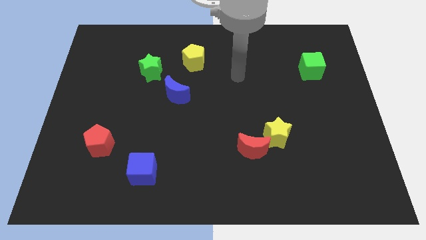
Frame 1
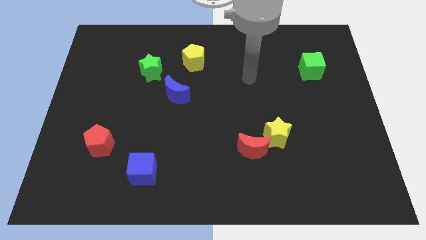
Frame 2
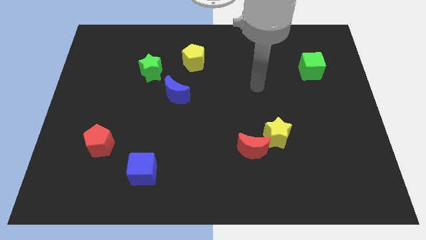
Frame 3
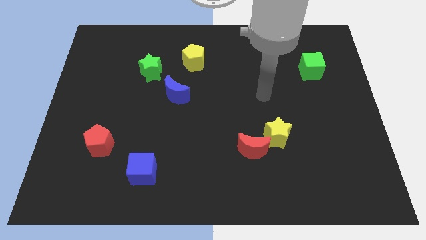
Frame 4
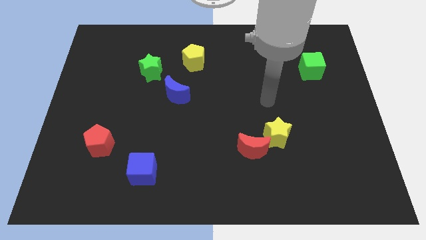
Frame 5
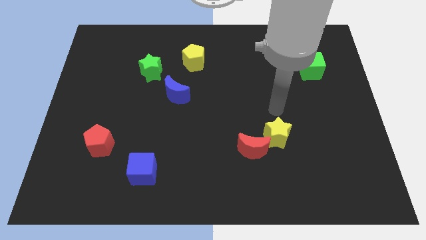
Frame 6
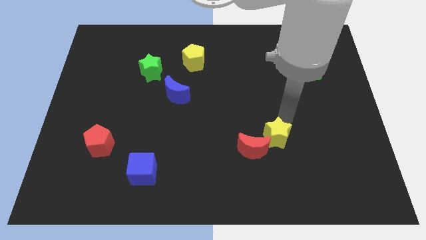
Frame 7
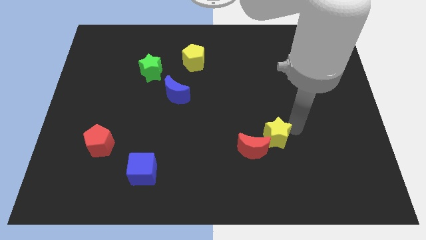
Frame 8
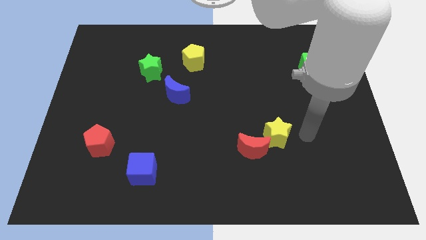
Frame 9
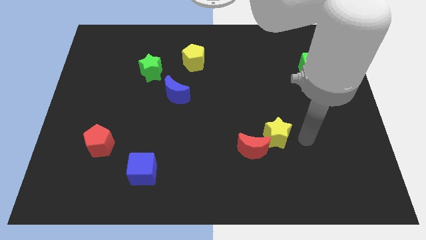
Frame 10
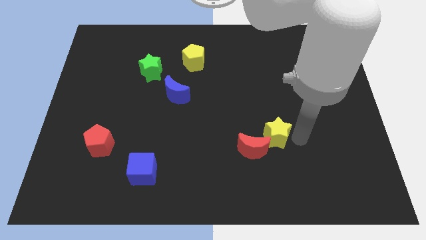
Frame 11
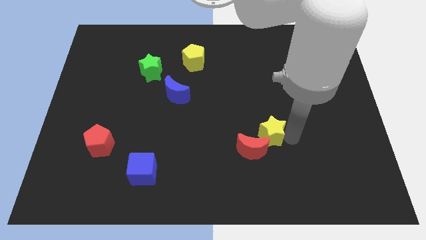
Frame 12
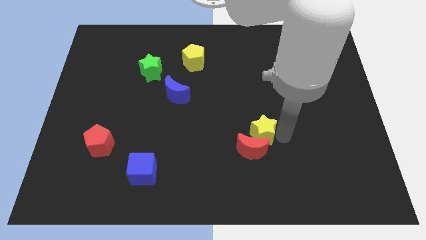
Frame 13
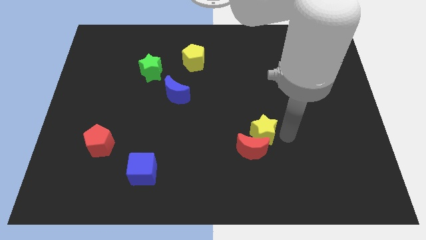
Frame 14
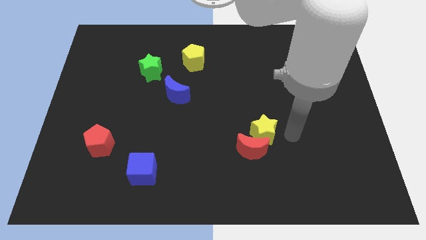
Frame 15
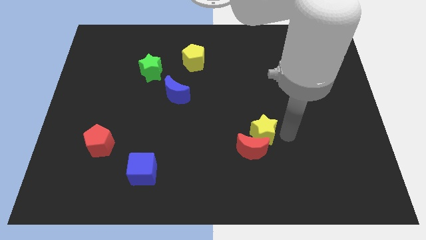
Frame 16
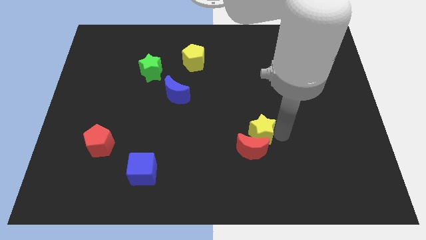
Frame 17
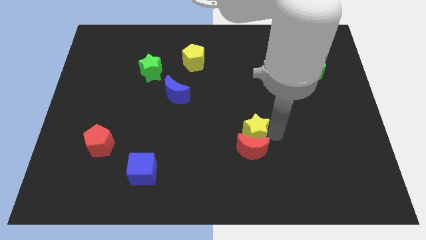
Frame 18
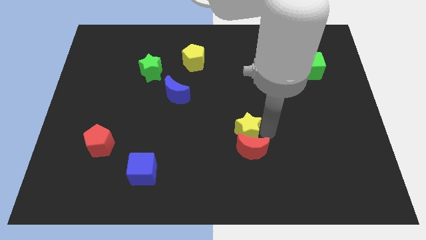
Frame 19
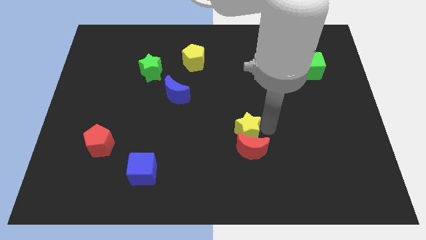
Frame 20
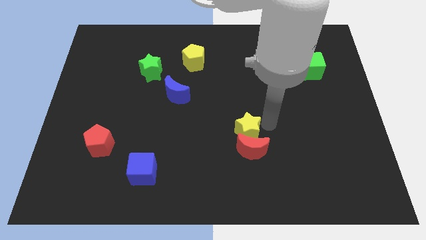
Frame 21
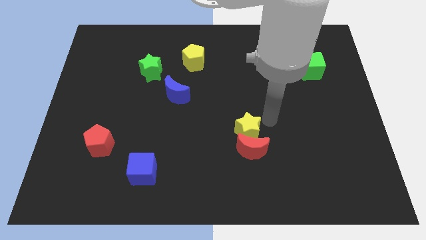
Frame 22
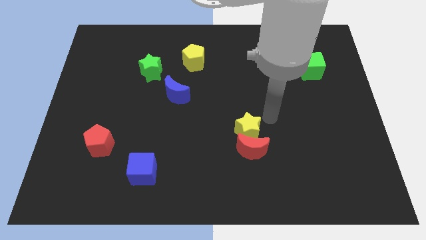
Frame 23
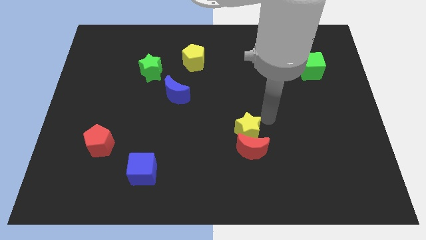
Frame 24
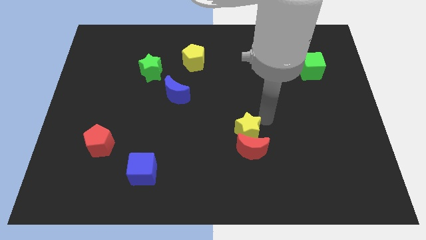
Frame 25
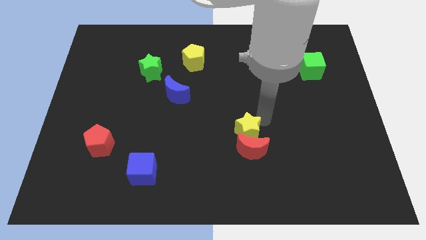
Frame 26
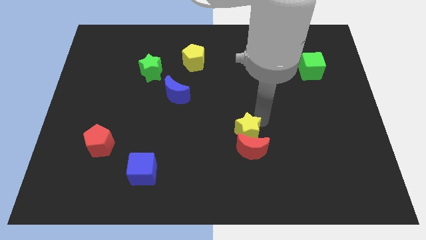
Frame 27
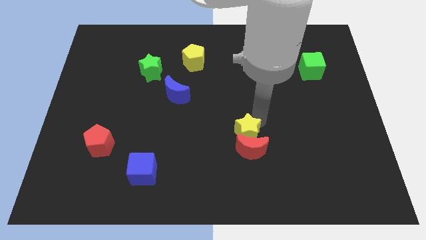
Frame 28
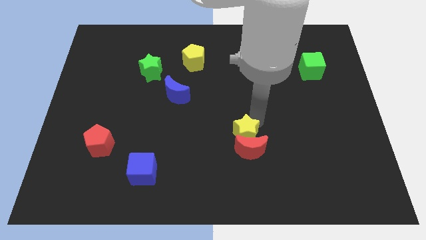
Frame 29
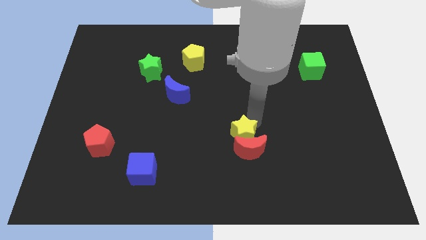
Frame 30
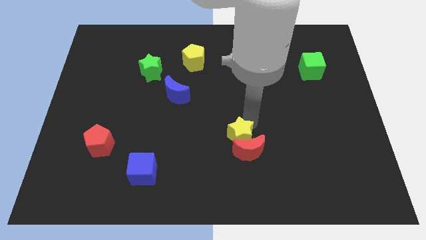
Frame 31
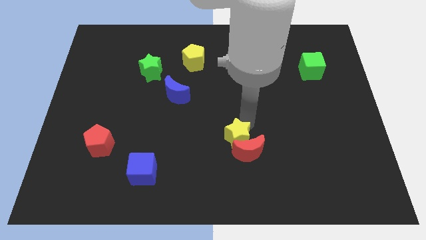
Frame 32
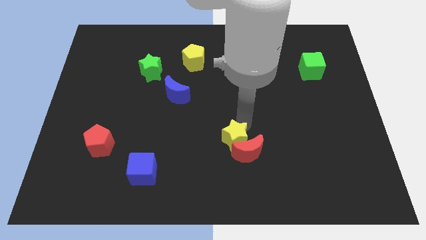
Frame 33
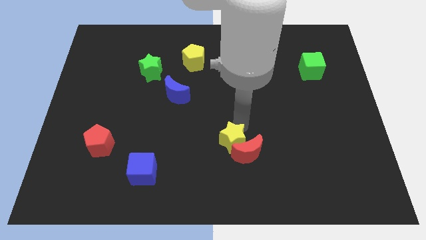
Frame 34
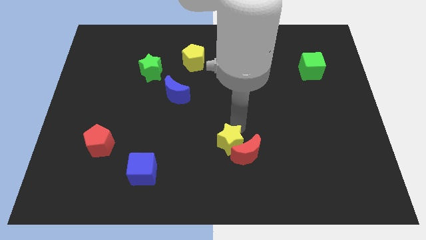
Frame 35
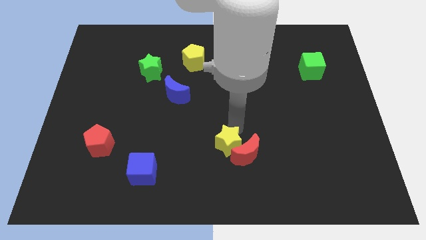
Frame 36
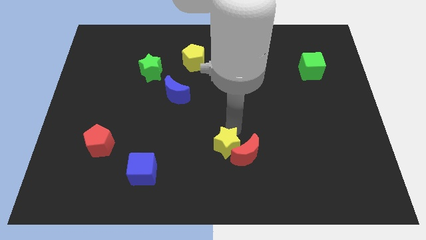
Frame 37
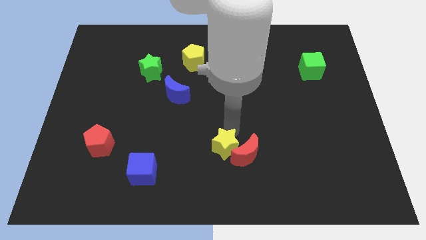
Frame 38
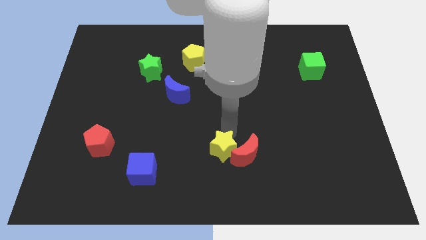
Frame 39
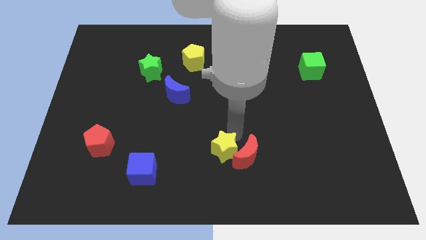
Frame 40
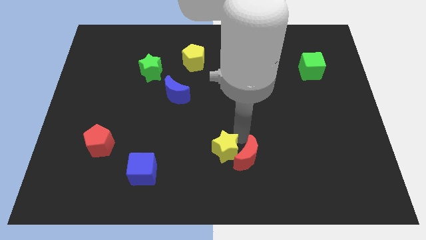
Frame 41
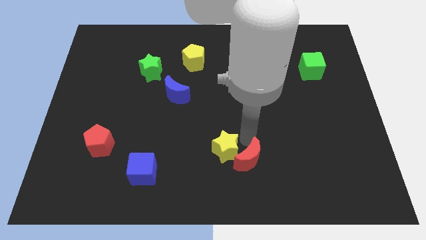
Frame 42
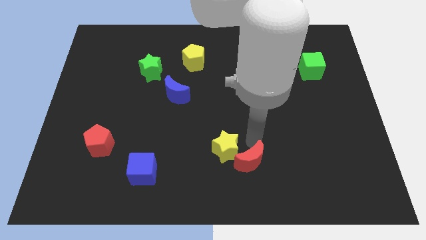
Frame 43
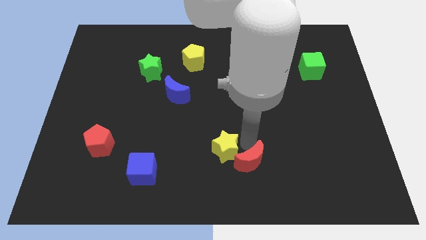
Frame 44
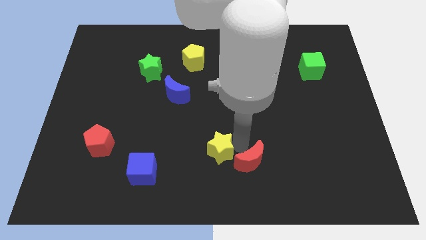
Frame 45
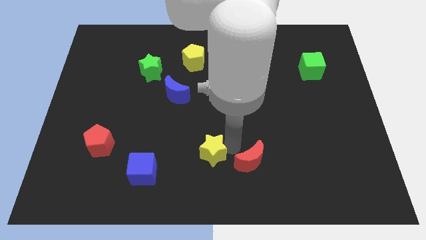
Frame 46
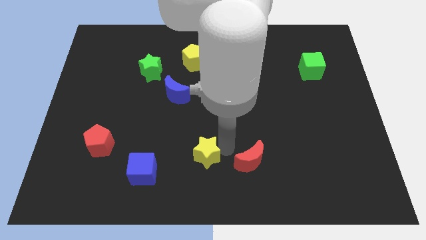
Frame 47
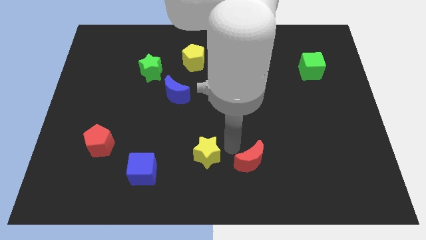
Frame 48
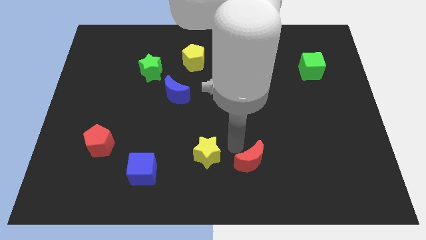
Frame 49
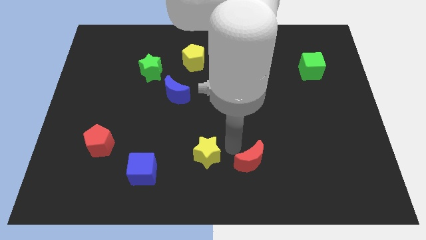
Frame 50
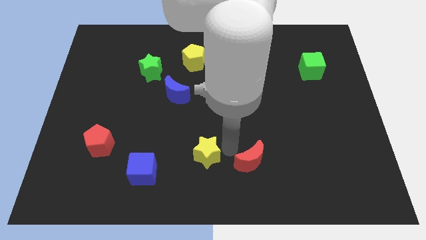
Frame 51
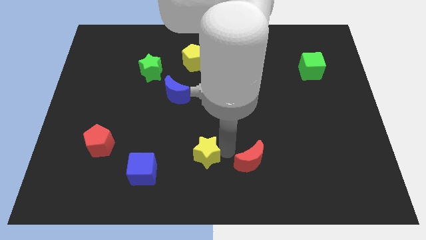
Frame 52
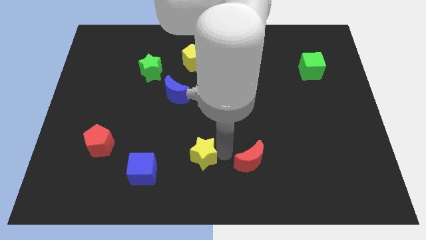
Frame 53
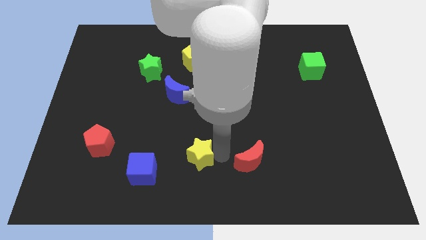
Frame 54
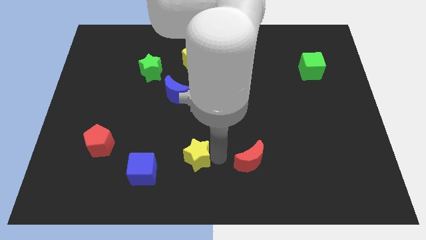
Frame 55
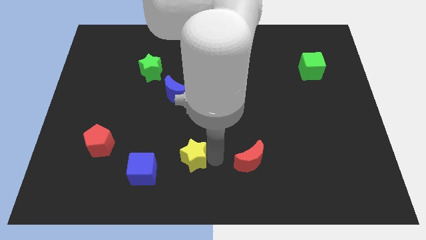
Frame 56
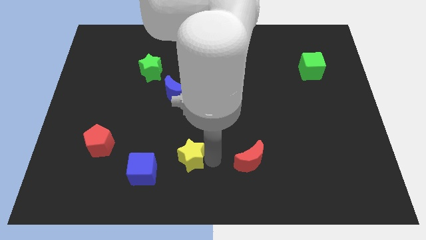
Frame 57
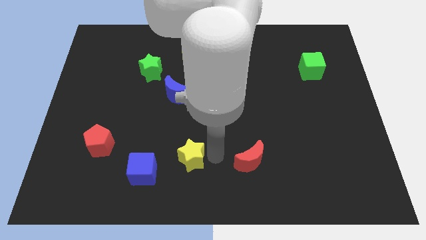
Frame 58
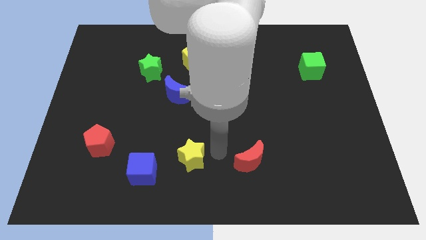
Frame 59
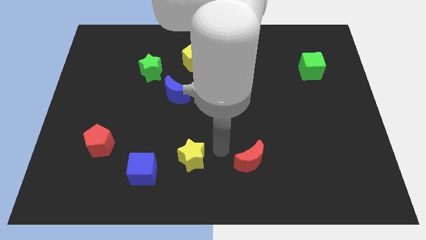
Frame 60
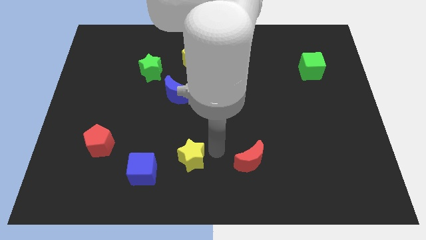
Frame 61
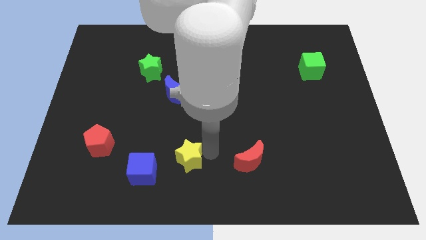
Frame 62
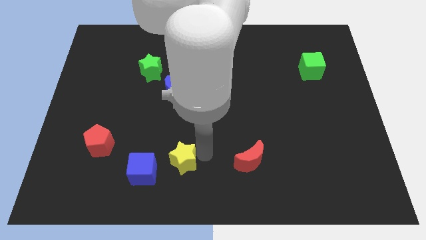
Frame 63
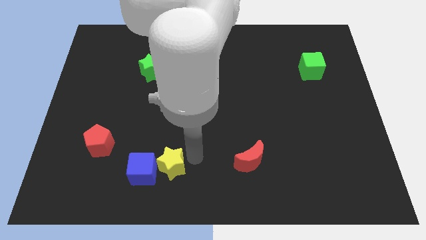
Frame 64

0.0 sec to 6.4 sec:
move the yellow star towards the blue cube

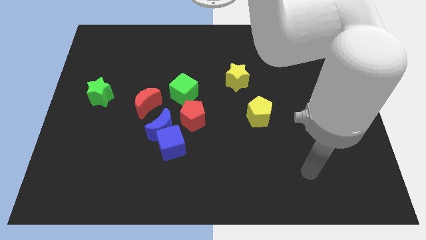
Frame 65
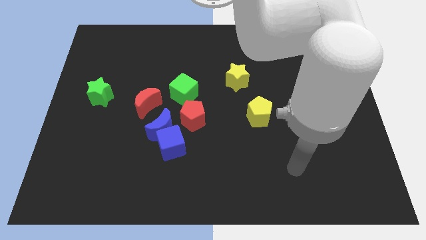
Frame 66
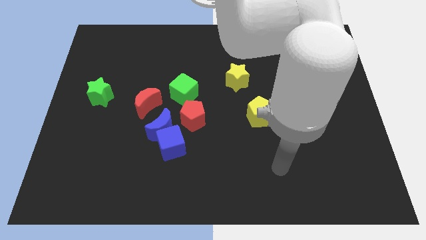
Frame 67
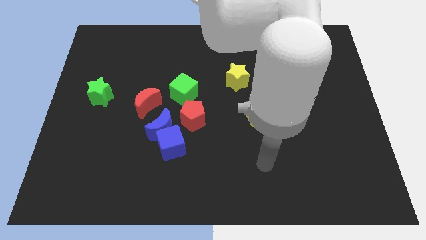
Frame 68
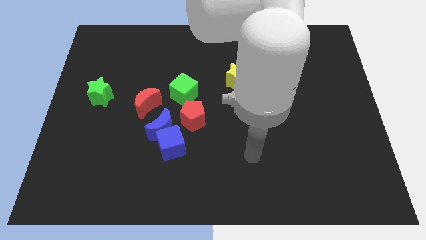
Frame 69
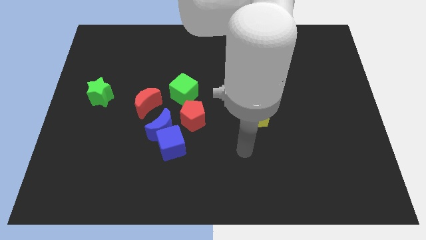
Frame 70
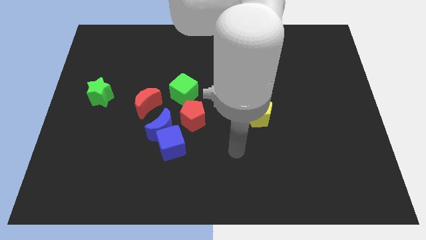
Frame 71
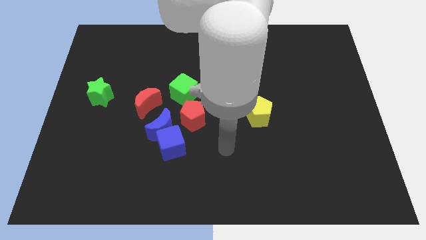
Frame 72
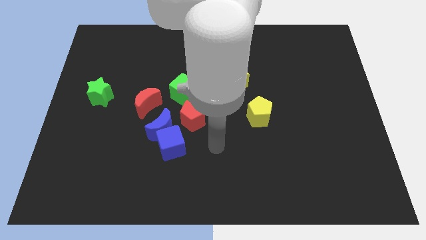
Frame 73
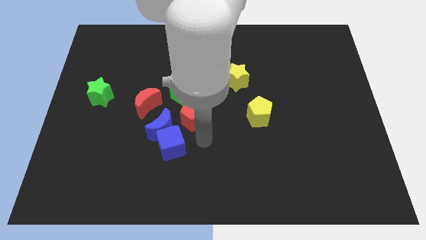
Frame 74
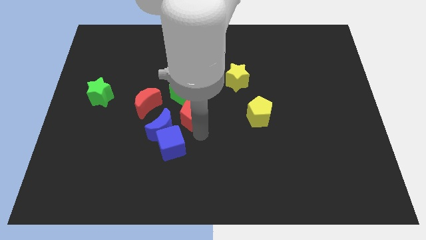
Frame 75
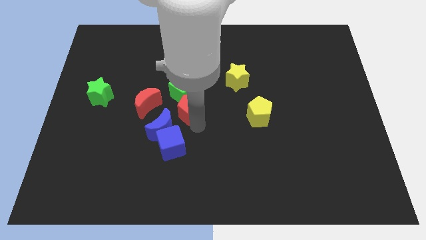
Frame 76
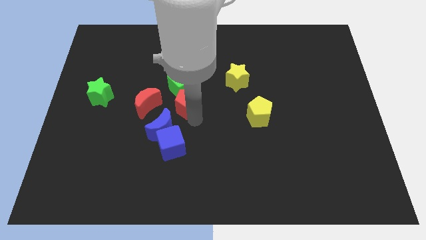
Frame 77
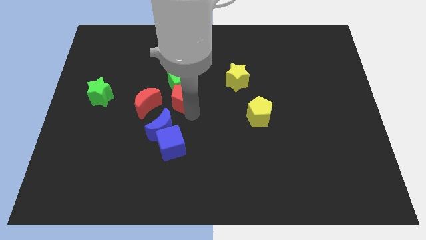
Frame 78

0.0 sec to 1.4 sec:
put the red pentagon to the green cube
